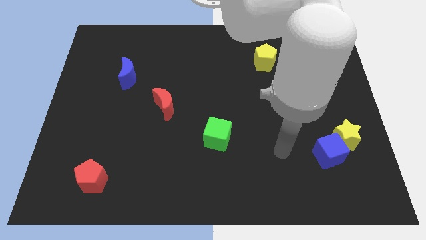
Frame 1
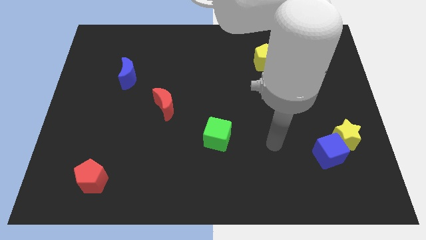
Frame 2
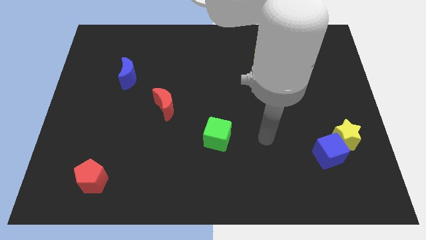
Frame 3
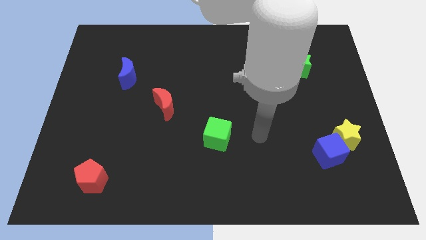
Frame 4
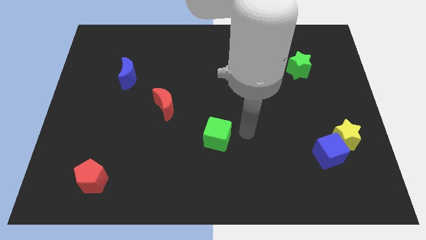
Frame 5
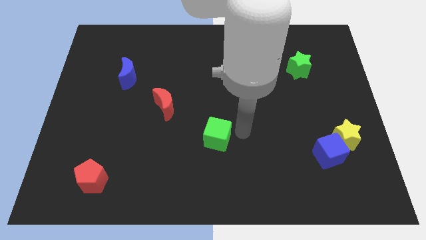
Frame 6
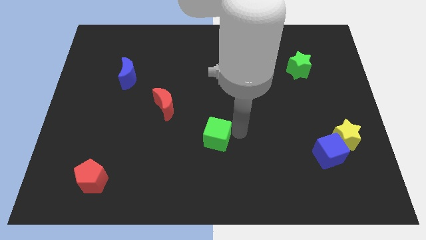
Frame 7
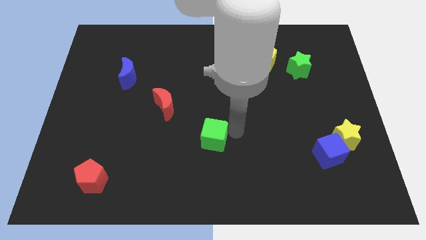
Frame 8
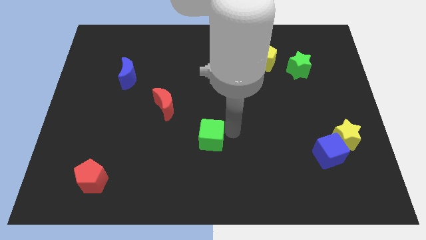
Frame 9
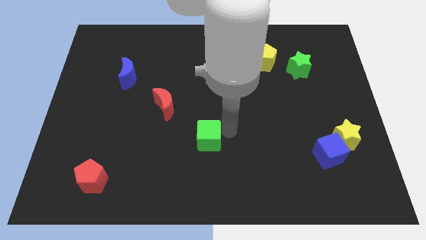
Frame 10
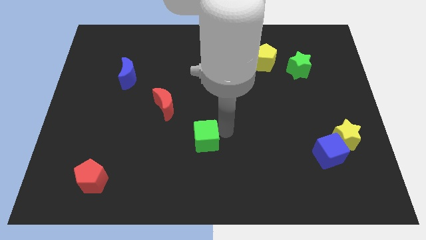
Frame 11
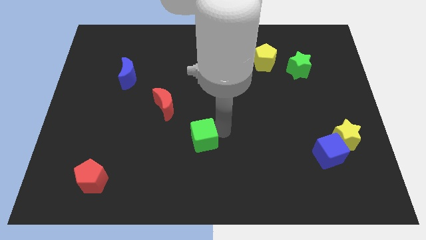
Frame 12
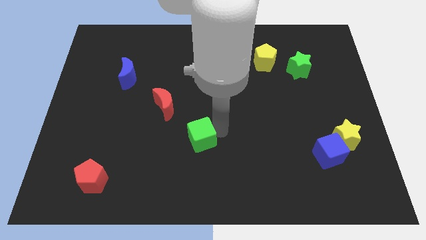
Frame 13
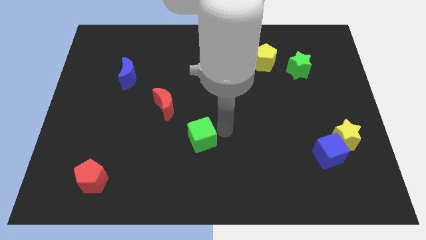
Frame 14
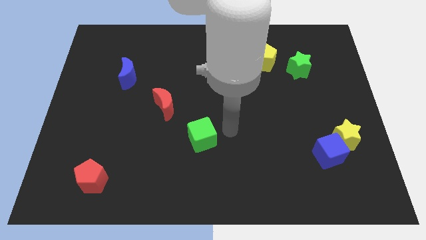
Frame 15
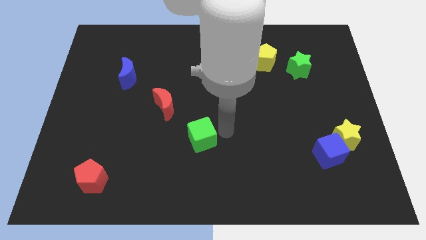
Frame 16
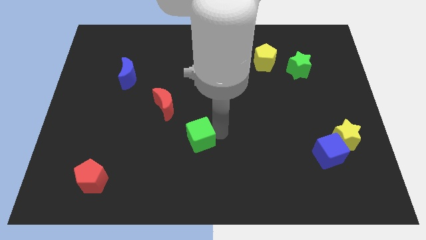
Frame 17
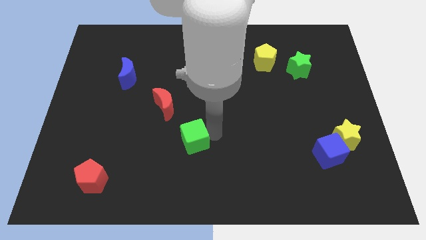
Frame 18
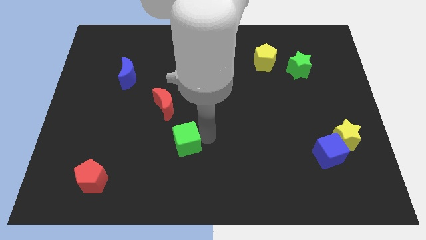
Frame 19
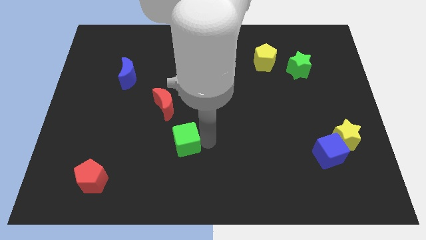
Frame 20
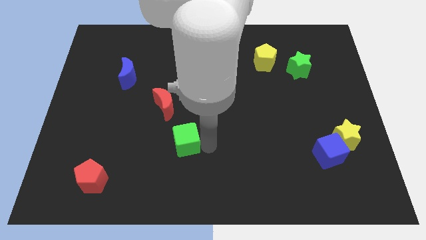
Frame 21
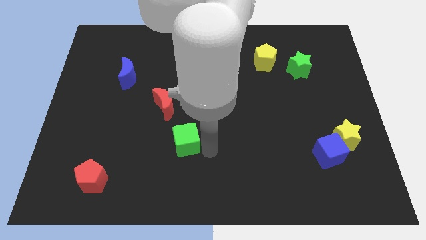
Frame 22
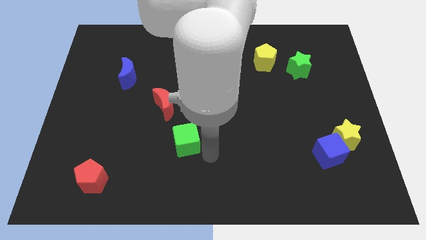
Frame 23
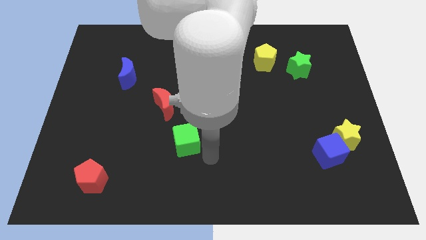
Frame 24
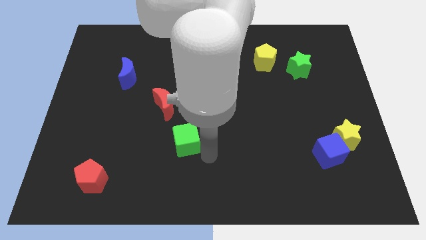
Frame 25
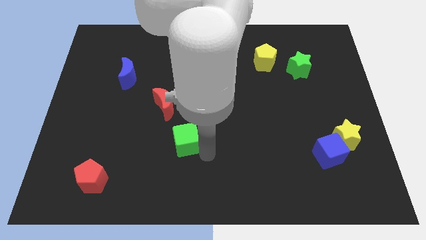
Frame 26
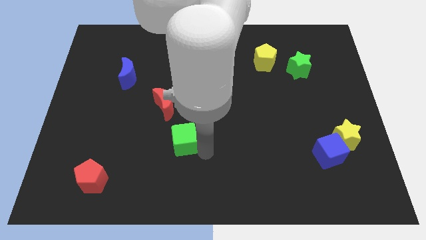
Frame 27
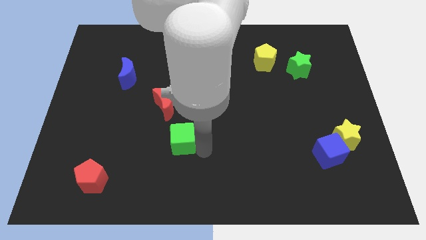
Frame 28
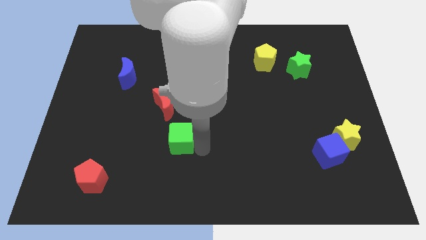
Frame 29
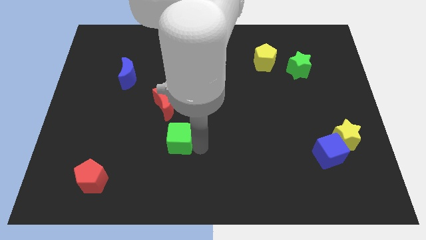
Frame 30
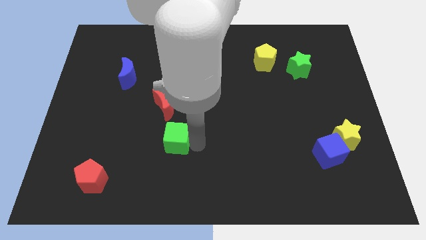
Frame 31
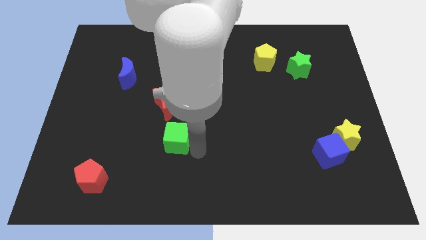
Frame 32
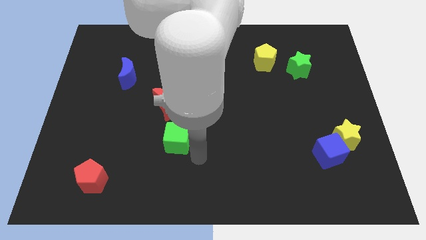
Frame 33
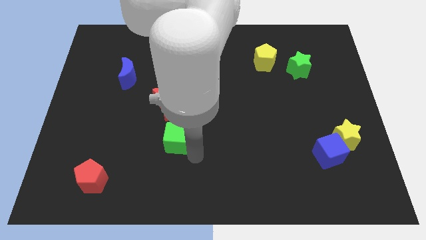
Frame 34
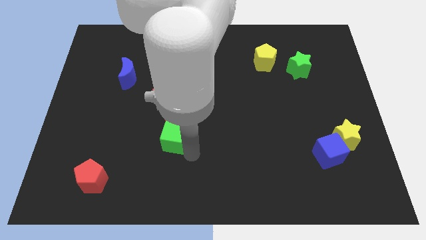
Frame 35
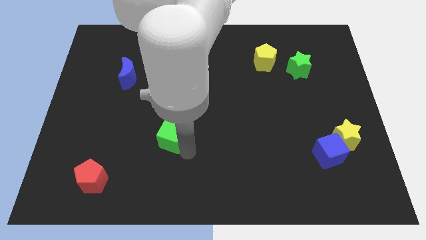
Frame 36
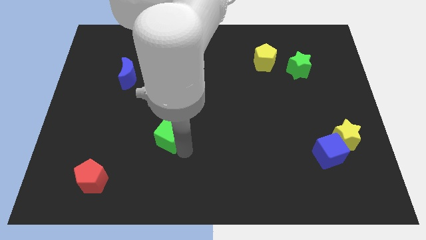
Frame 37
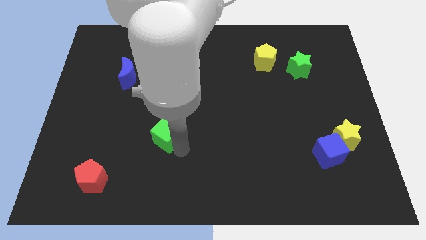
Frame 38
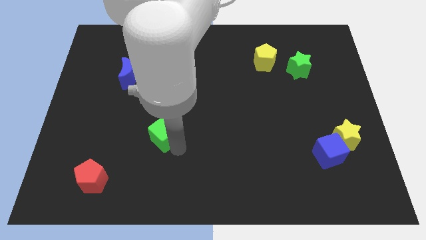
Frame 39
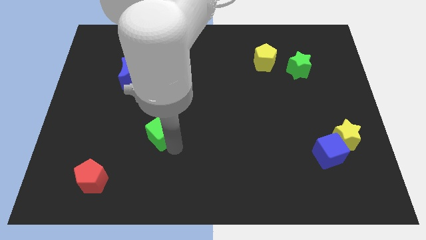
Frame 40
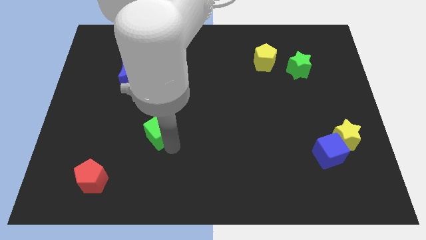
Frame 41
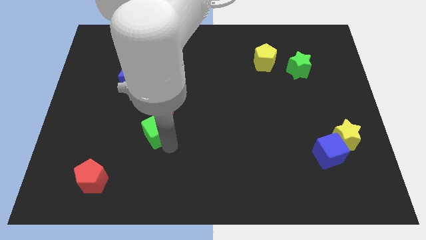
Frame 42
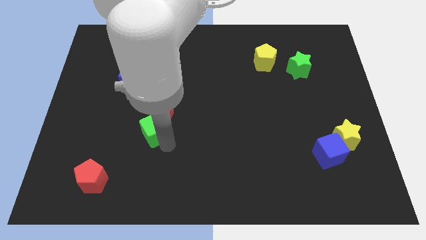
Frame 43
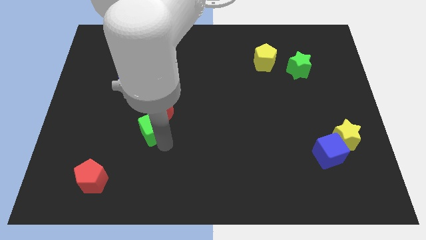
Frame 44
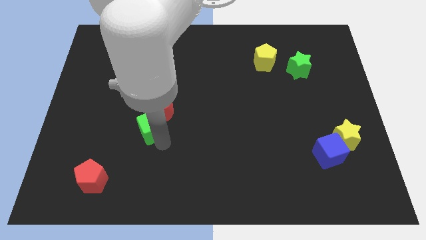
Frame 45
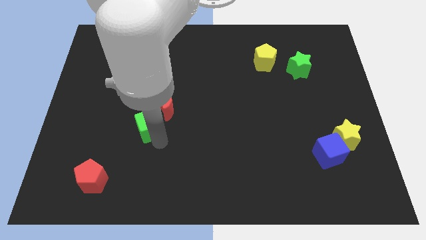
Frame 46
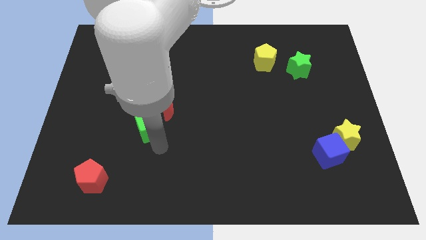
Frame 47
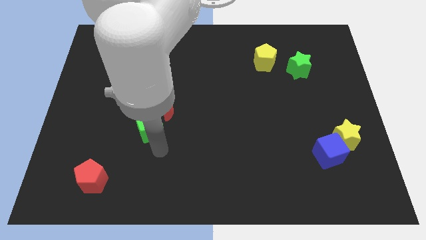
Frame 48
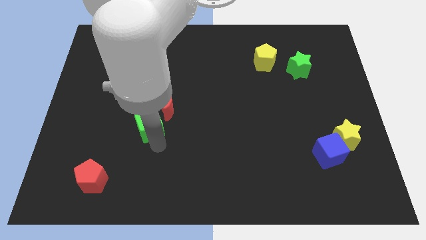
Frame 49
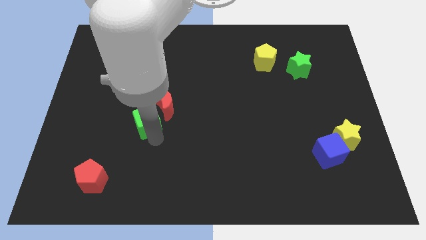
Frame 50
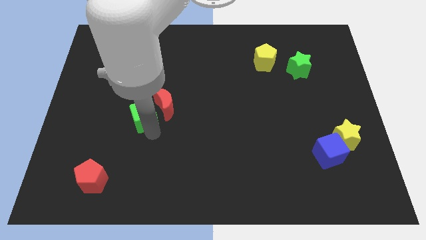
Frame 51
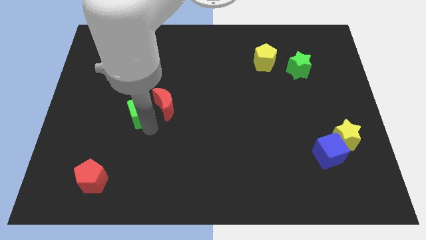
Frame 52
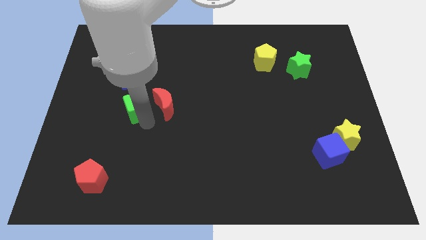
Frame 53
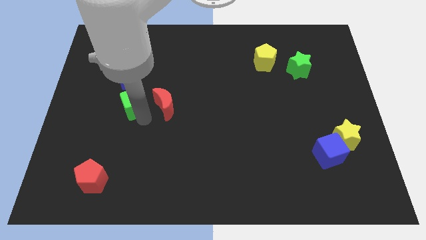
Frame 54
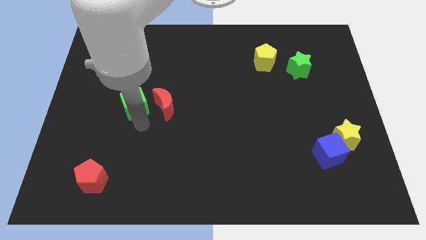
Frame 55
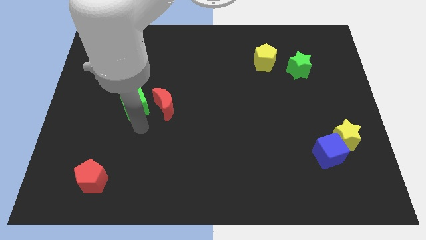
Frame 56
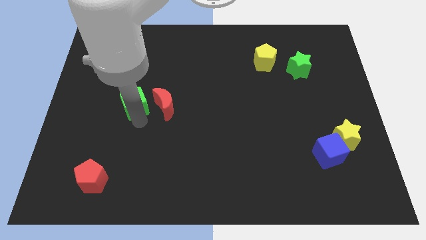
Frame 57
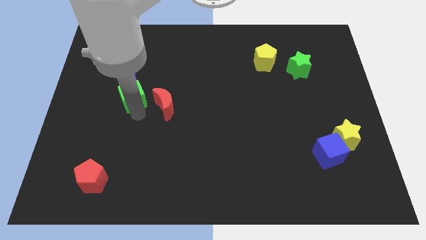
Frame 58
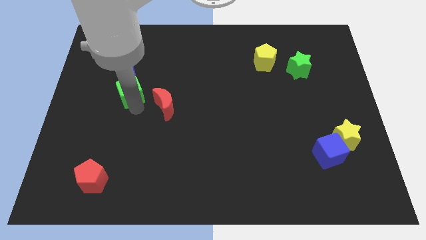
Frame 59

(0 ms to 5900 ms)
move the green cube close to the blue moon

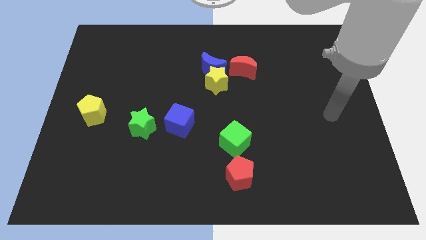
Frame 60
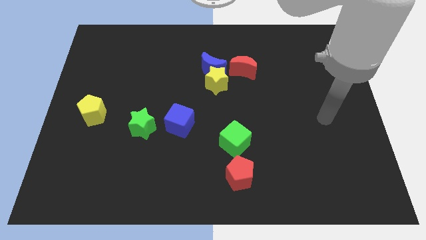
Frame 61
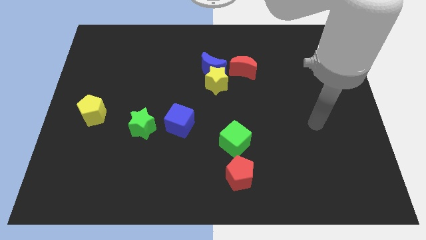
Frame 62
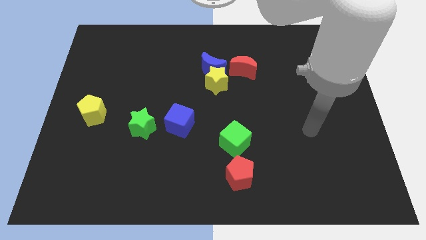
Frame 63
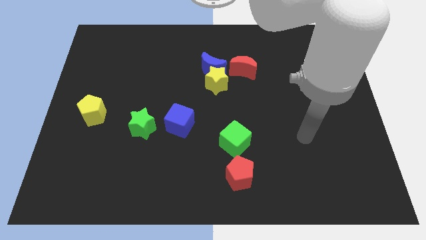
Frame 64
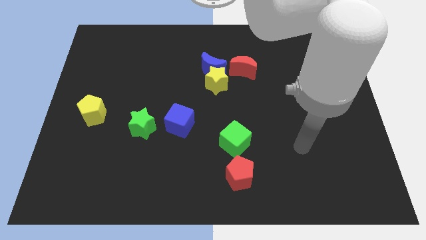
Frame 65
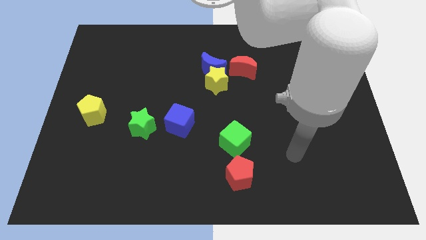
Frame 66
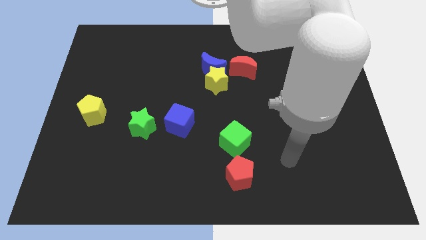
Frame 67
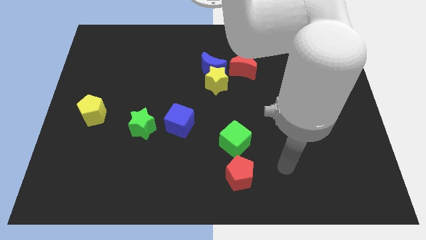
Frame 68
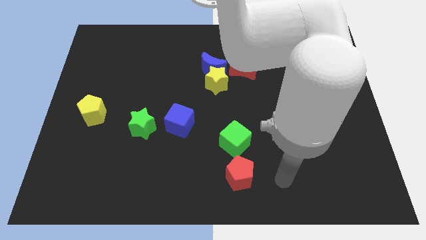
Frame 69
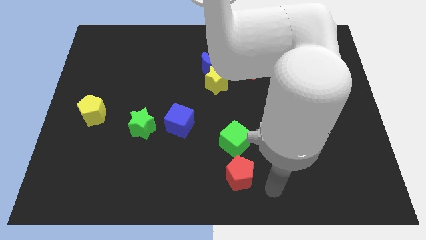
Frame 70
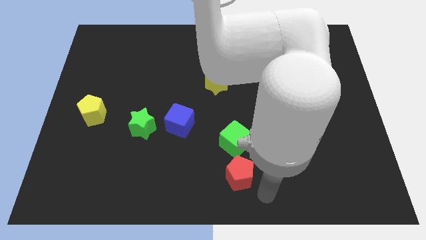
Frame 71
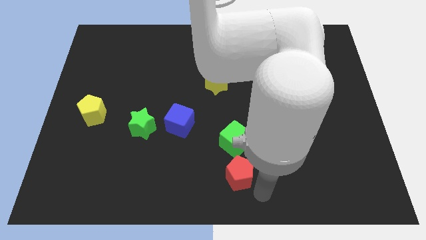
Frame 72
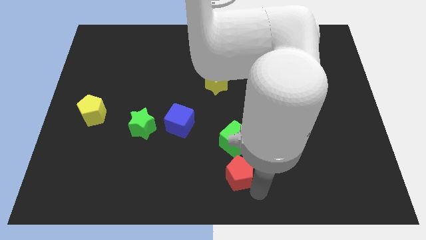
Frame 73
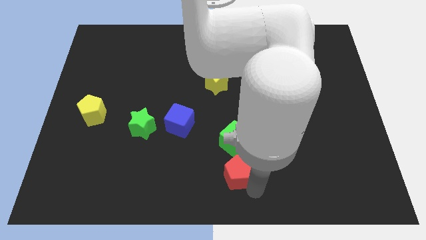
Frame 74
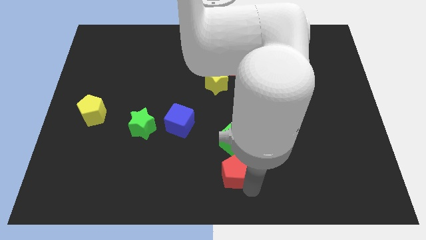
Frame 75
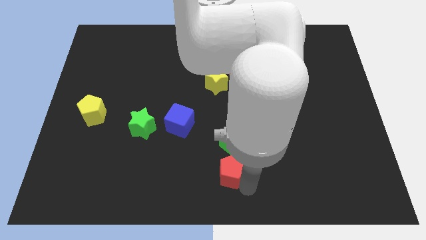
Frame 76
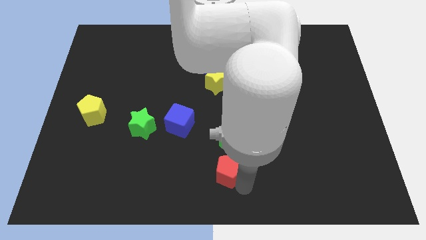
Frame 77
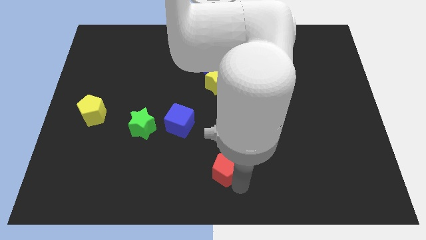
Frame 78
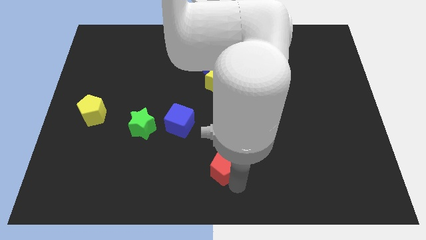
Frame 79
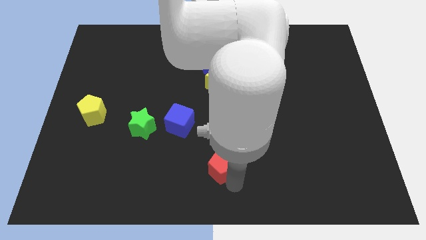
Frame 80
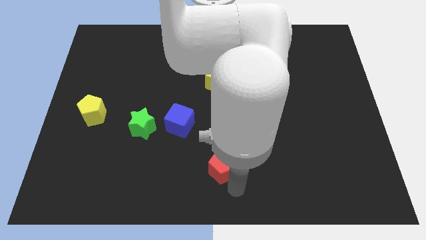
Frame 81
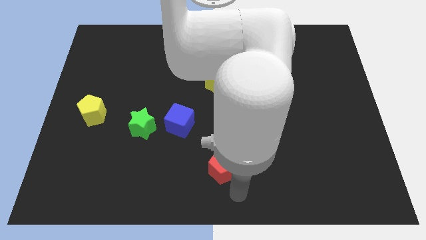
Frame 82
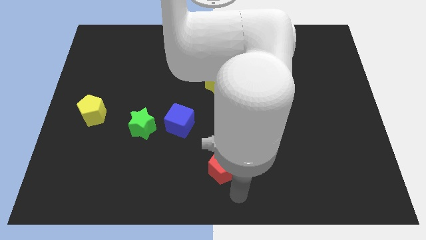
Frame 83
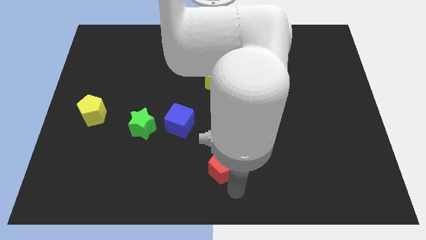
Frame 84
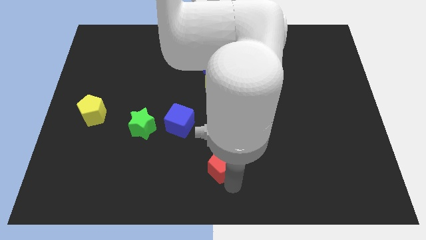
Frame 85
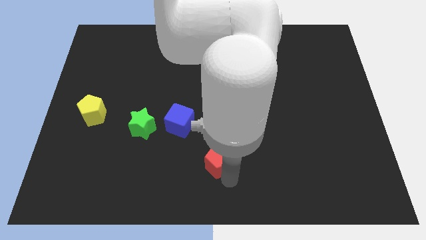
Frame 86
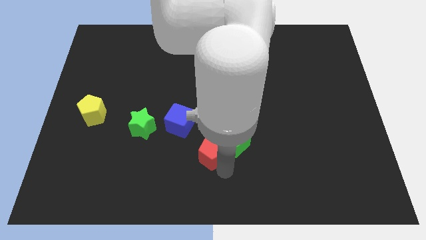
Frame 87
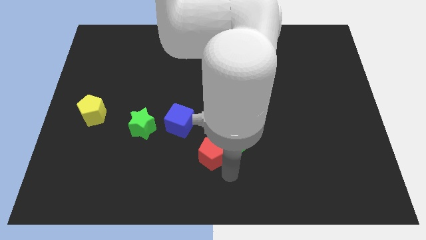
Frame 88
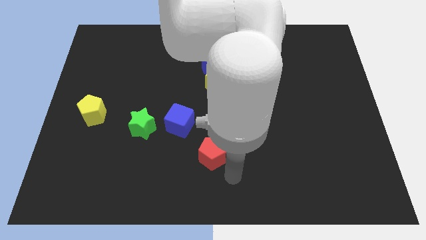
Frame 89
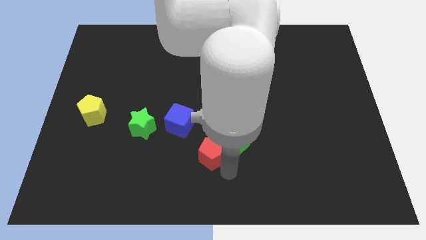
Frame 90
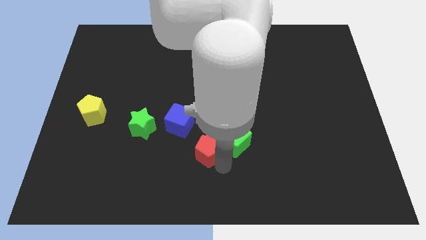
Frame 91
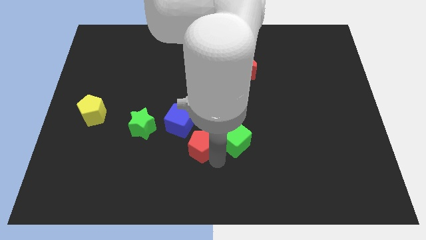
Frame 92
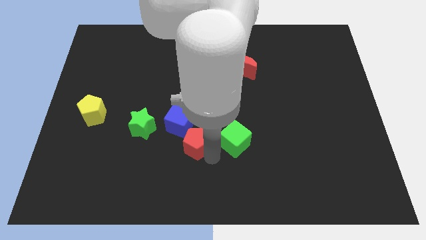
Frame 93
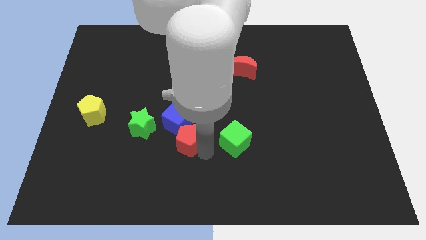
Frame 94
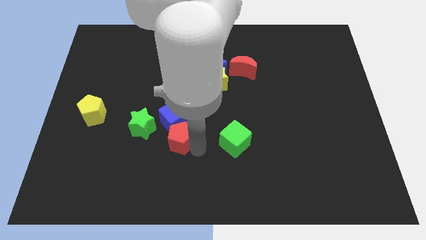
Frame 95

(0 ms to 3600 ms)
move the red pentagon close to the blue cube
